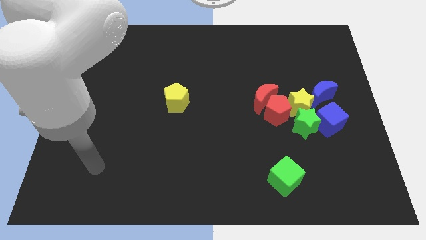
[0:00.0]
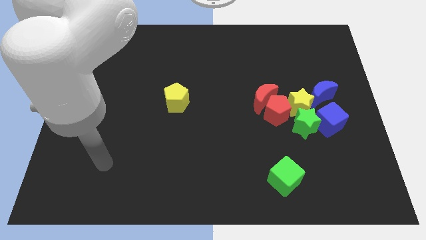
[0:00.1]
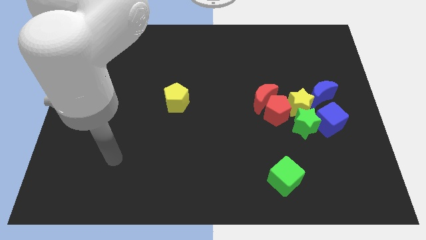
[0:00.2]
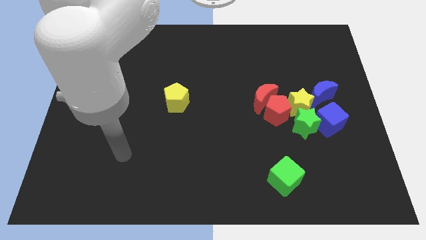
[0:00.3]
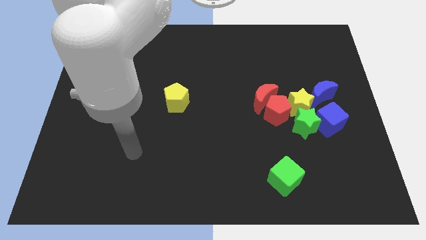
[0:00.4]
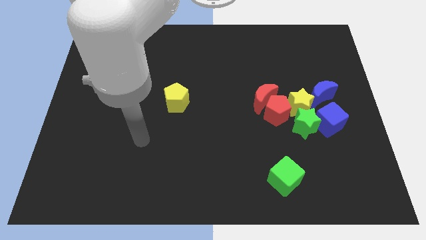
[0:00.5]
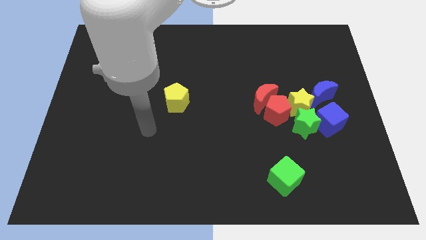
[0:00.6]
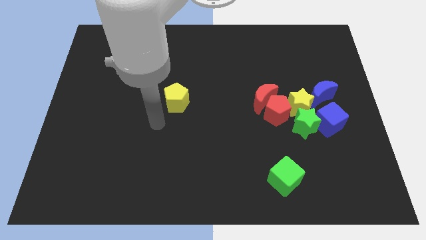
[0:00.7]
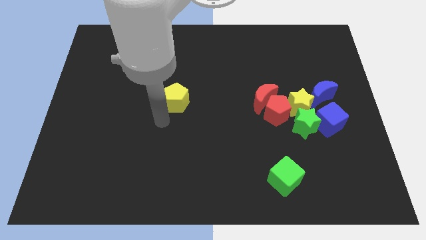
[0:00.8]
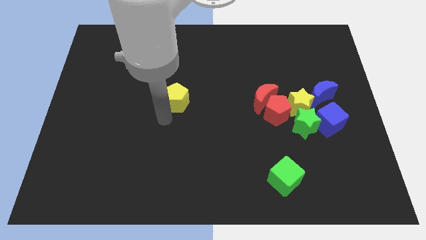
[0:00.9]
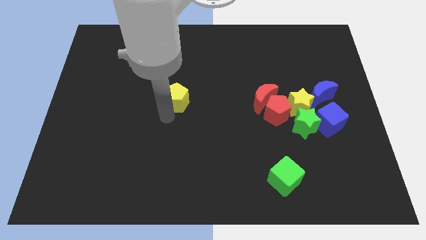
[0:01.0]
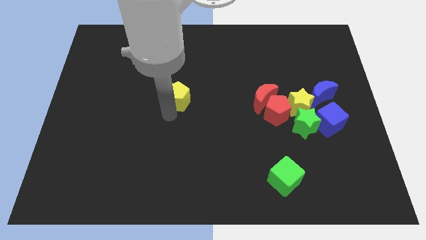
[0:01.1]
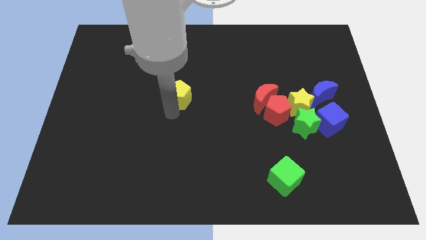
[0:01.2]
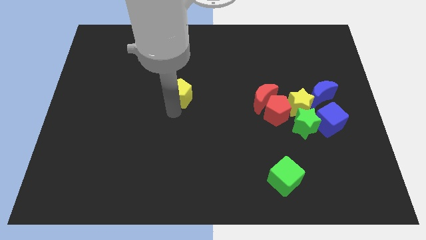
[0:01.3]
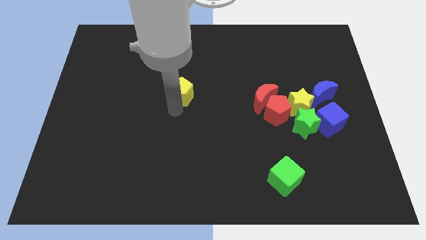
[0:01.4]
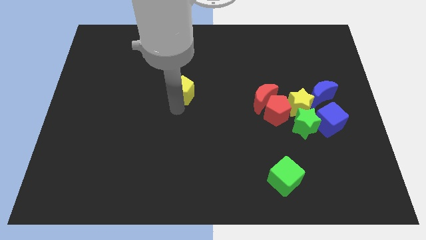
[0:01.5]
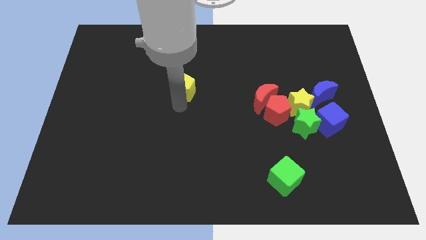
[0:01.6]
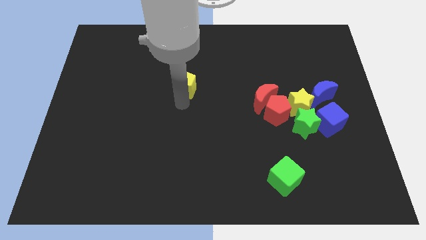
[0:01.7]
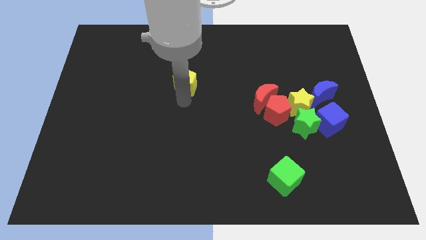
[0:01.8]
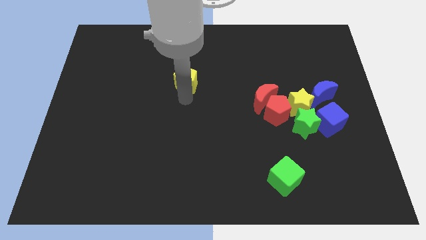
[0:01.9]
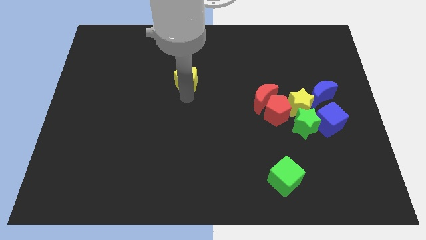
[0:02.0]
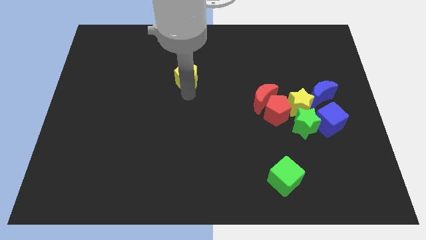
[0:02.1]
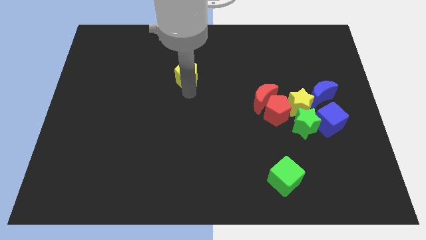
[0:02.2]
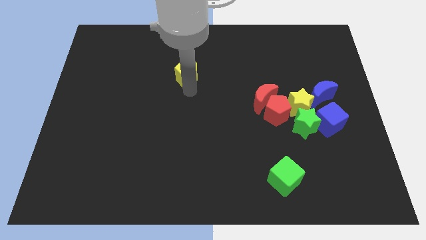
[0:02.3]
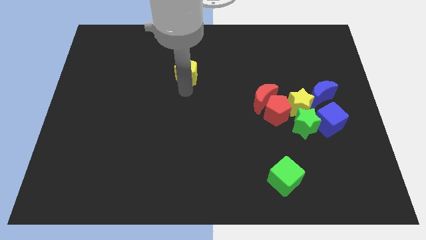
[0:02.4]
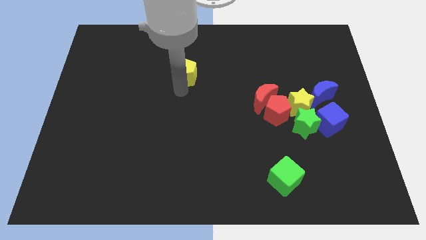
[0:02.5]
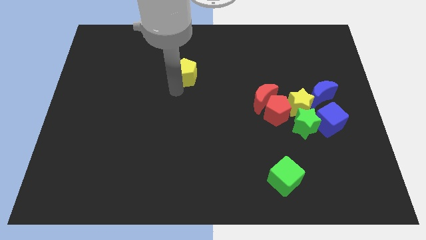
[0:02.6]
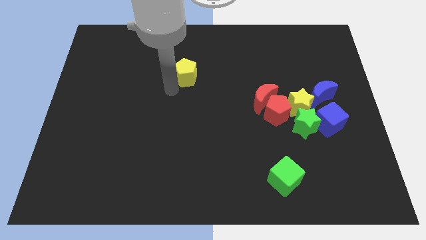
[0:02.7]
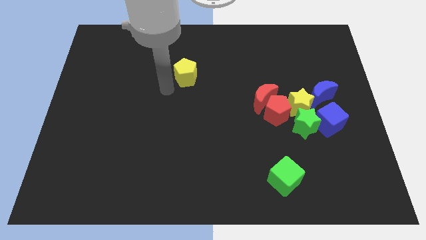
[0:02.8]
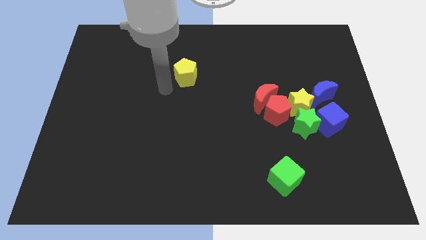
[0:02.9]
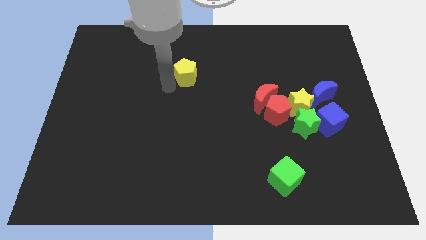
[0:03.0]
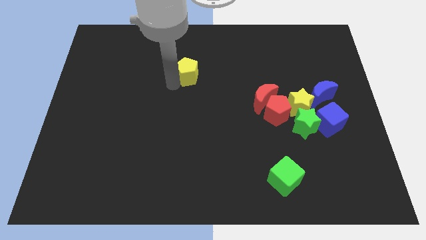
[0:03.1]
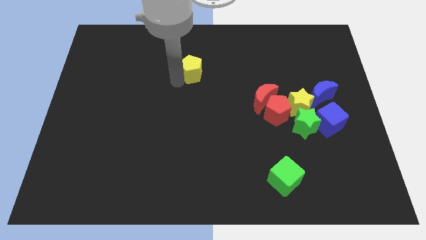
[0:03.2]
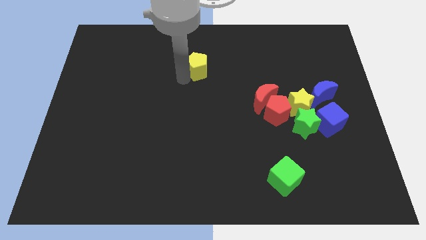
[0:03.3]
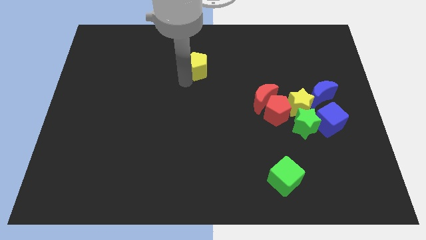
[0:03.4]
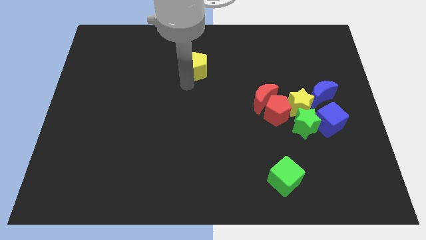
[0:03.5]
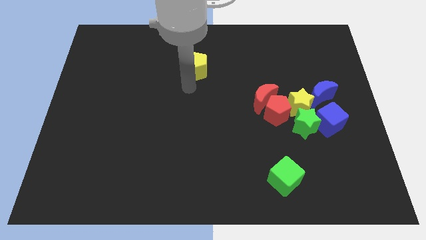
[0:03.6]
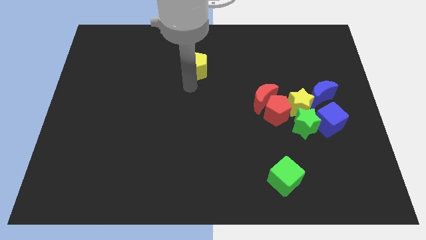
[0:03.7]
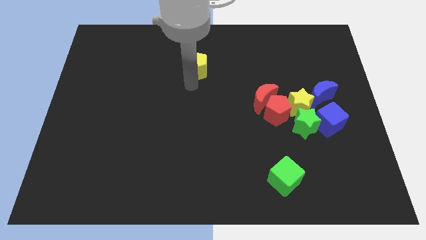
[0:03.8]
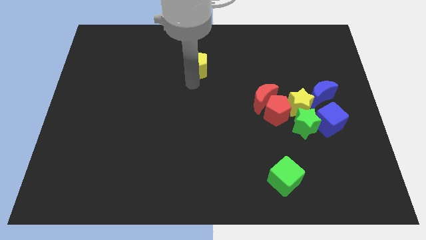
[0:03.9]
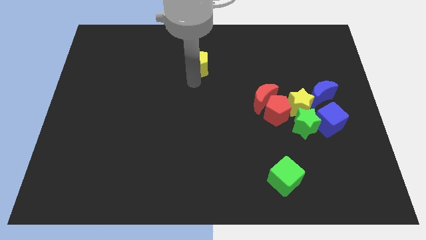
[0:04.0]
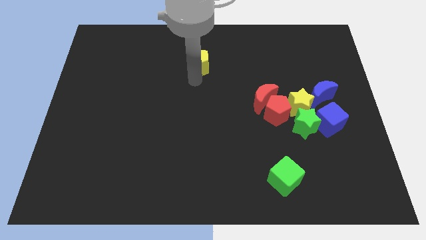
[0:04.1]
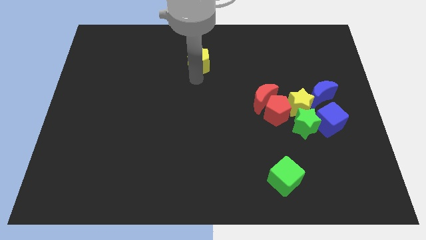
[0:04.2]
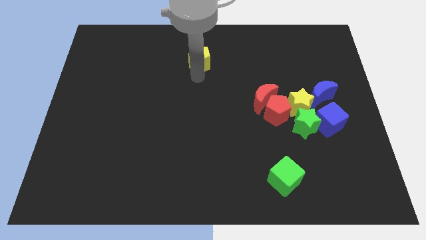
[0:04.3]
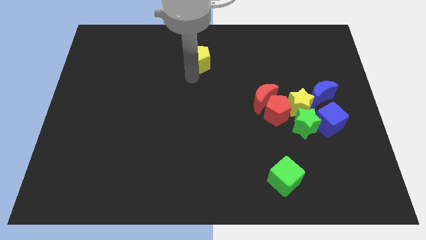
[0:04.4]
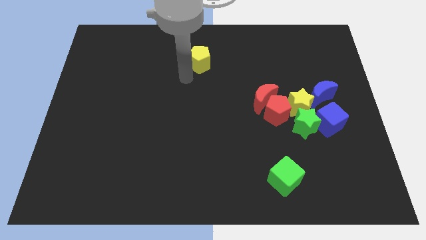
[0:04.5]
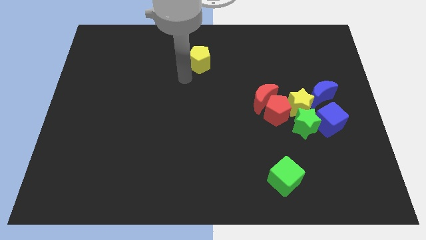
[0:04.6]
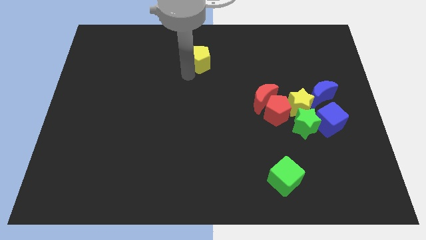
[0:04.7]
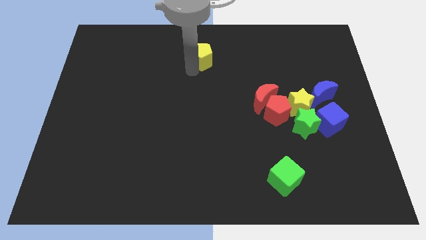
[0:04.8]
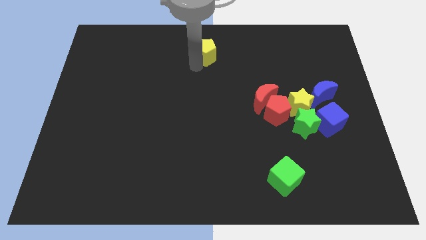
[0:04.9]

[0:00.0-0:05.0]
slide the yellow pentagon to the towards your base

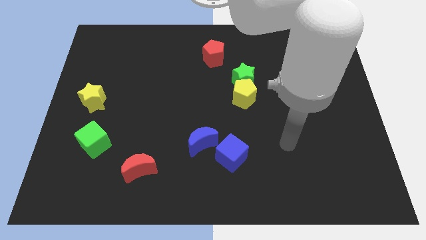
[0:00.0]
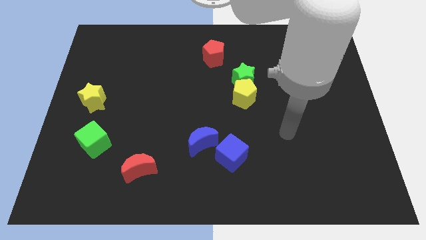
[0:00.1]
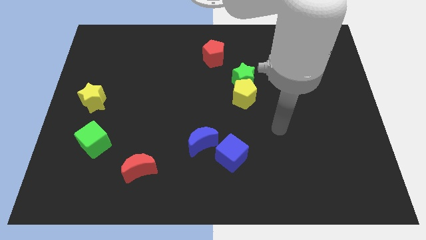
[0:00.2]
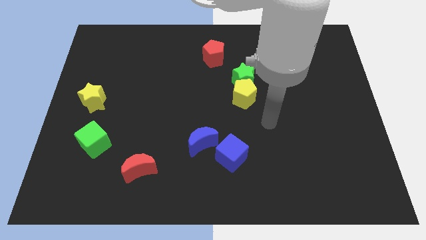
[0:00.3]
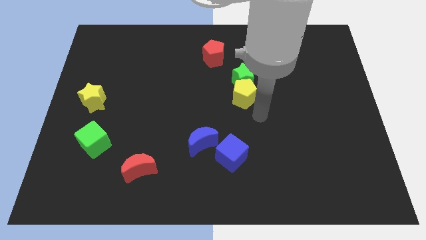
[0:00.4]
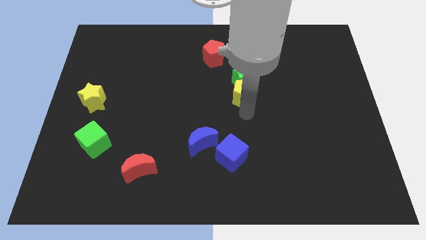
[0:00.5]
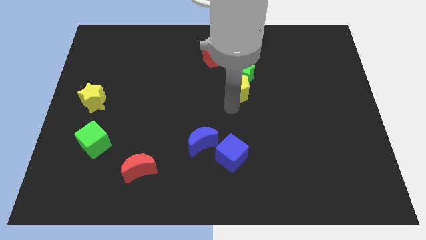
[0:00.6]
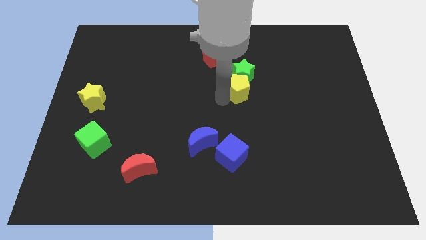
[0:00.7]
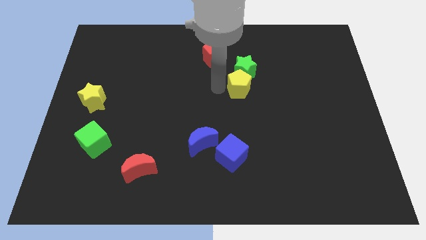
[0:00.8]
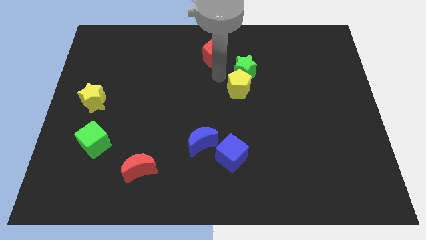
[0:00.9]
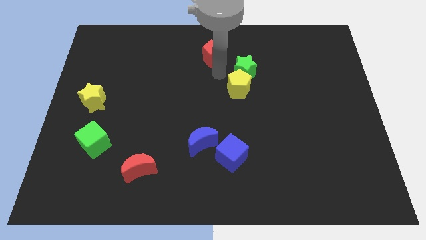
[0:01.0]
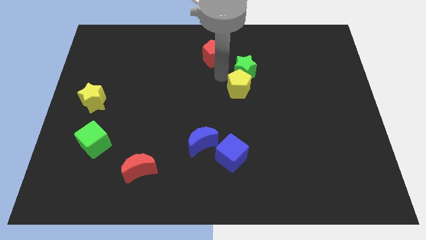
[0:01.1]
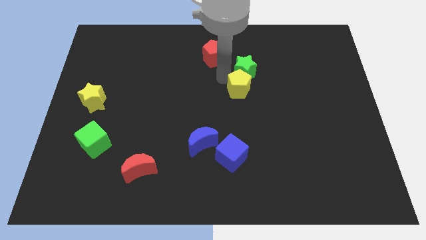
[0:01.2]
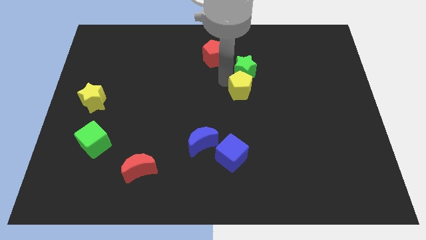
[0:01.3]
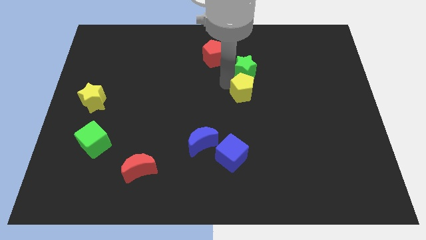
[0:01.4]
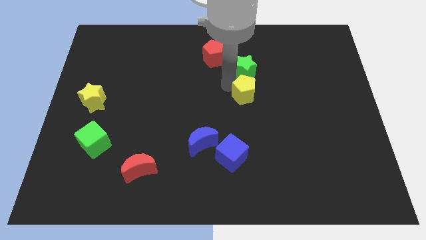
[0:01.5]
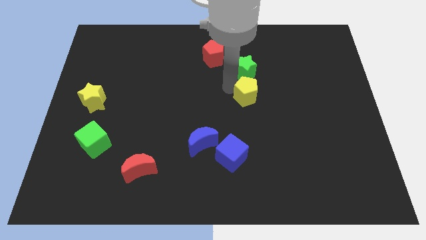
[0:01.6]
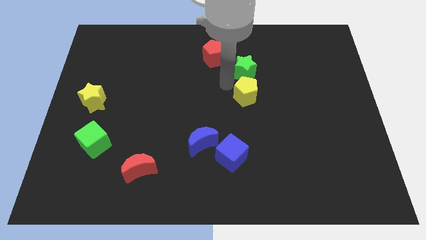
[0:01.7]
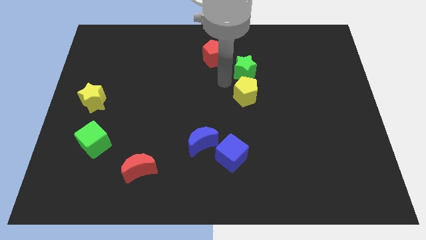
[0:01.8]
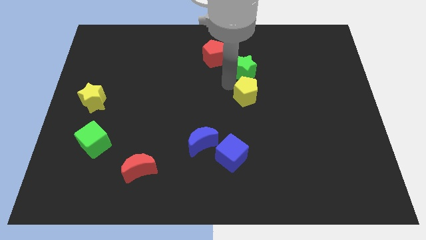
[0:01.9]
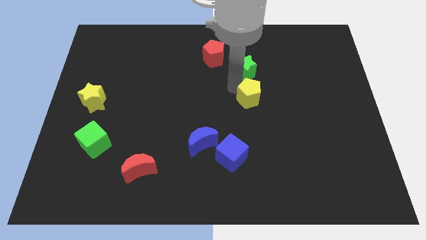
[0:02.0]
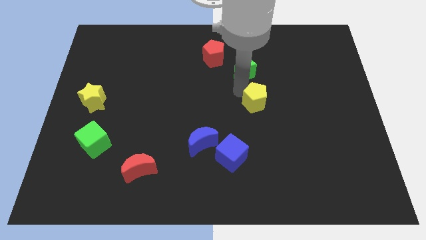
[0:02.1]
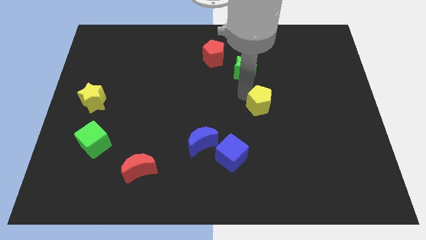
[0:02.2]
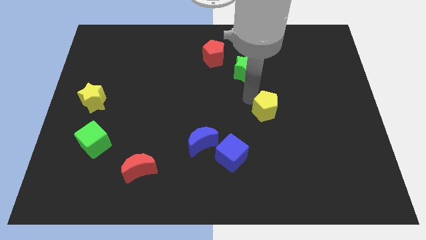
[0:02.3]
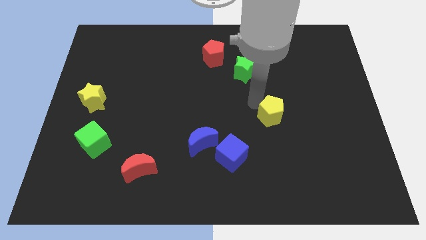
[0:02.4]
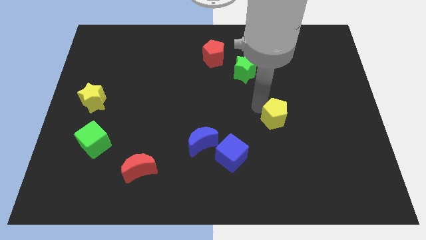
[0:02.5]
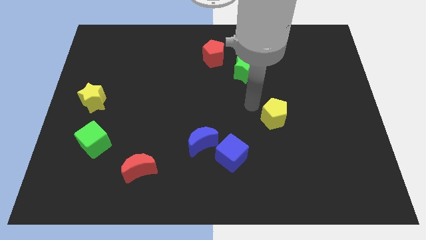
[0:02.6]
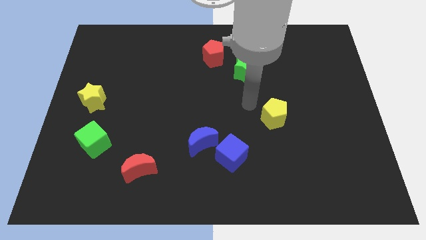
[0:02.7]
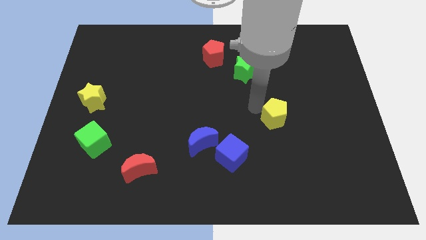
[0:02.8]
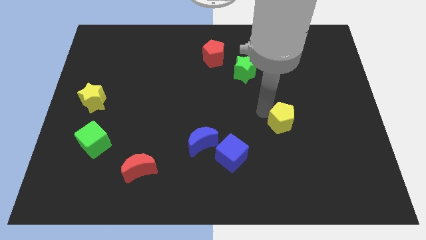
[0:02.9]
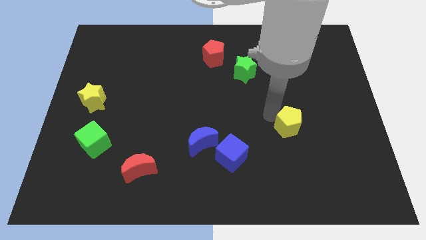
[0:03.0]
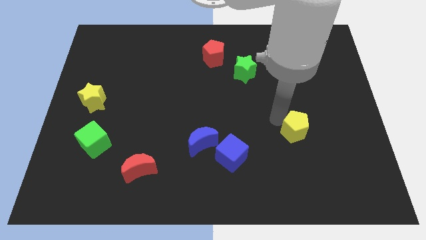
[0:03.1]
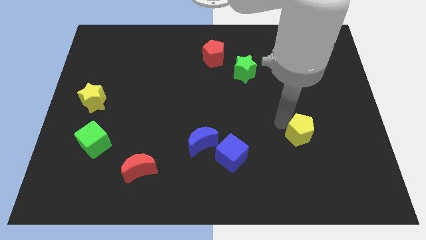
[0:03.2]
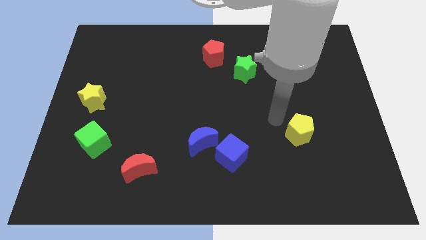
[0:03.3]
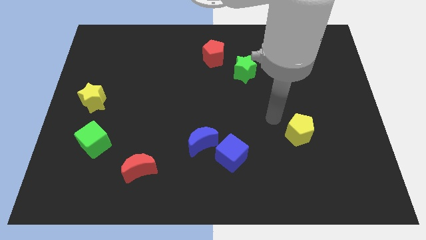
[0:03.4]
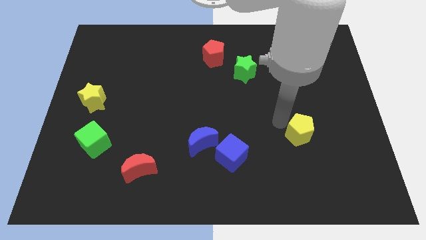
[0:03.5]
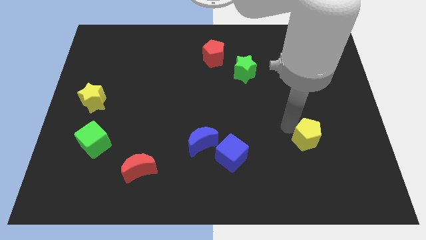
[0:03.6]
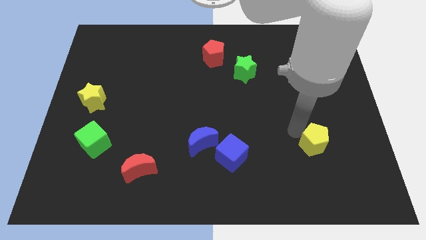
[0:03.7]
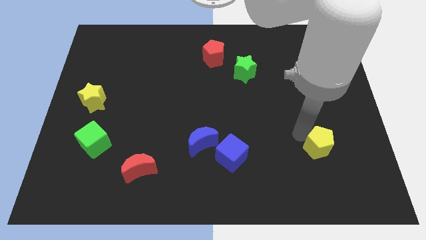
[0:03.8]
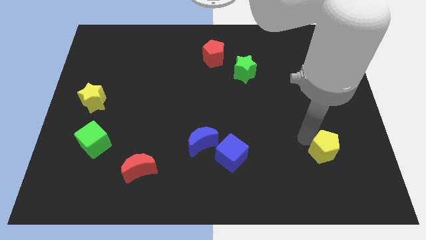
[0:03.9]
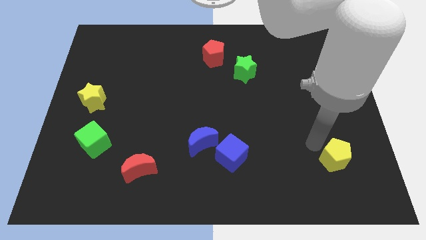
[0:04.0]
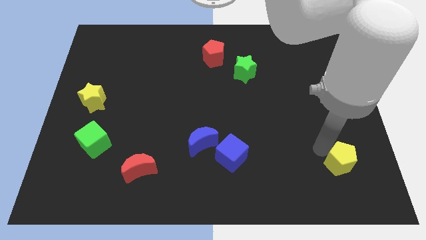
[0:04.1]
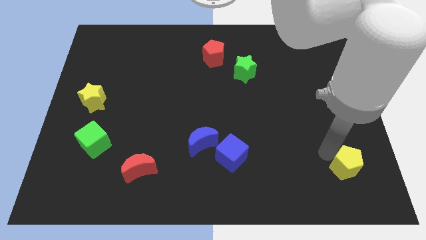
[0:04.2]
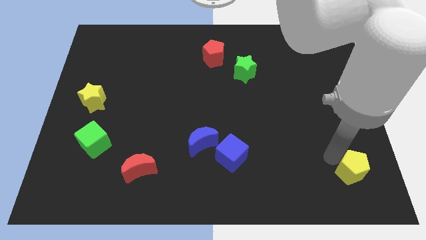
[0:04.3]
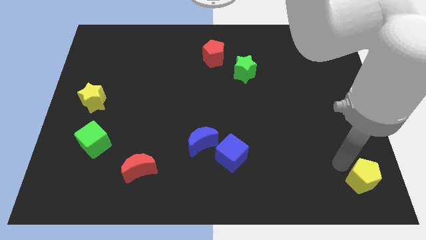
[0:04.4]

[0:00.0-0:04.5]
push the yellow pentagon to the bottom right corner
